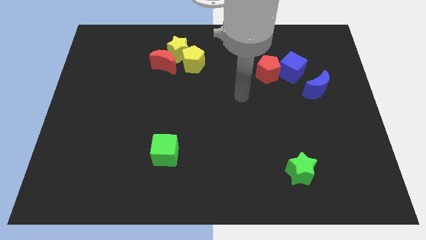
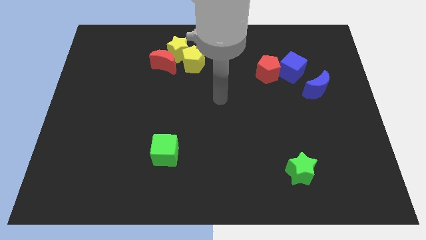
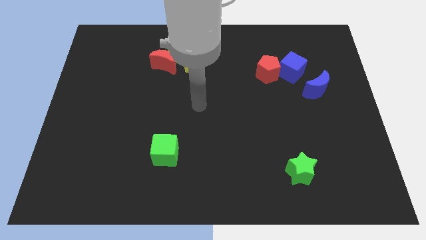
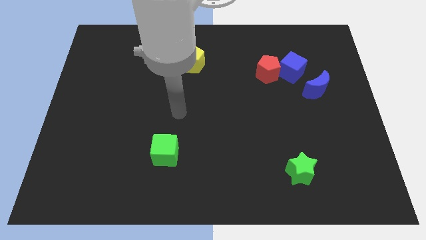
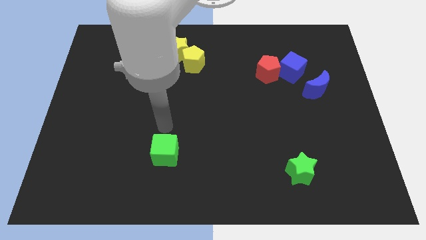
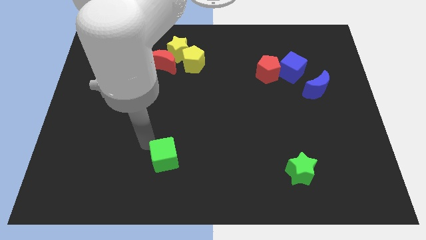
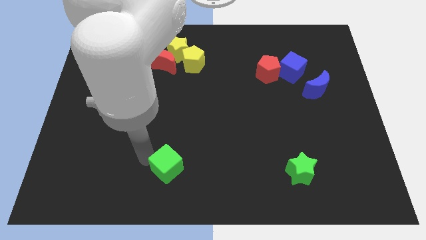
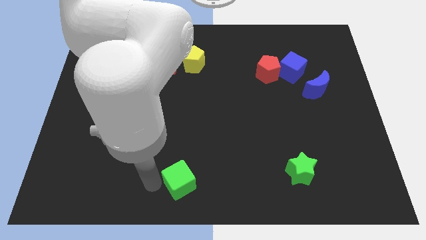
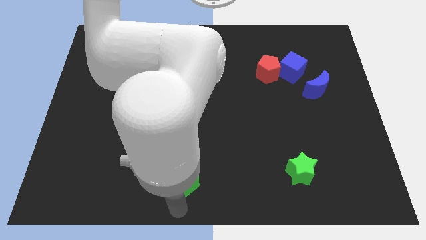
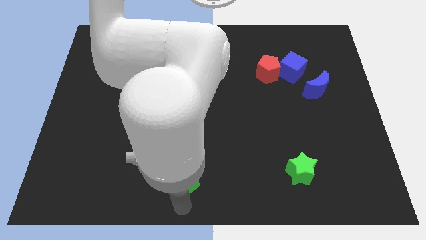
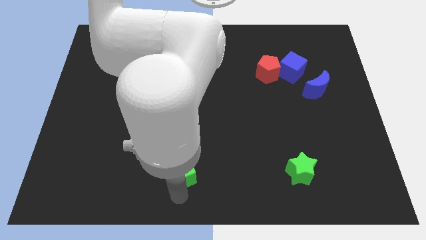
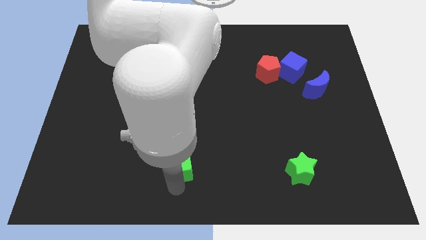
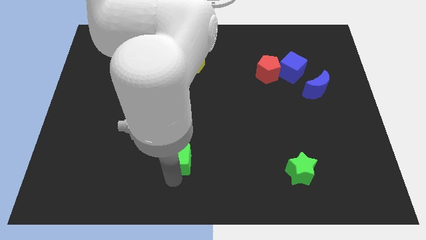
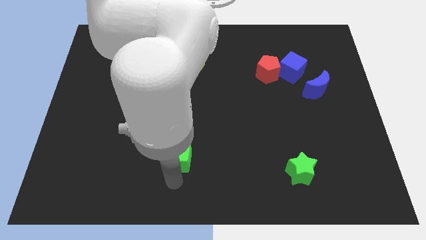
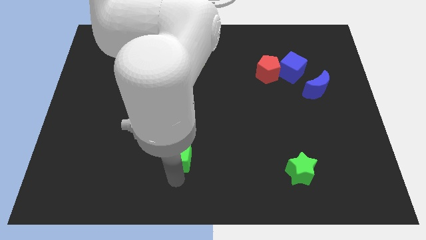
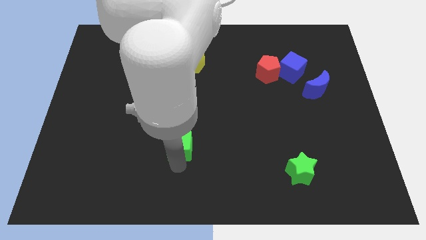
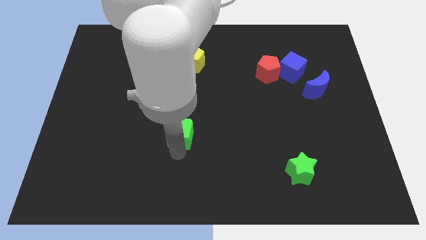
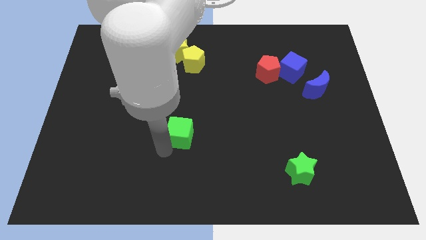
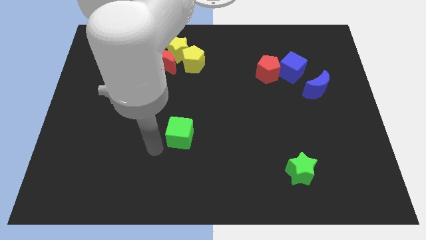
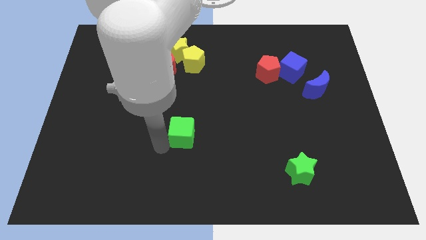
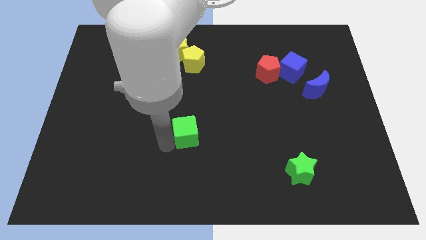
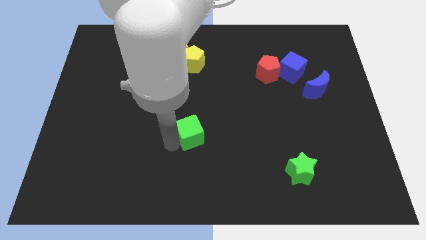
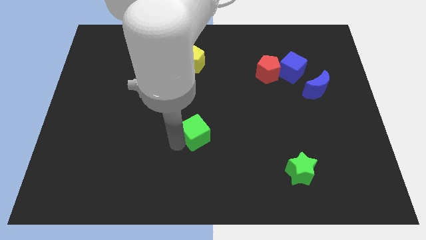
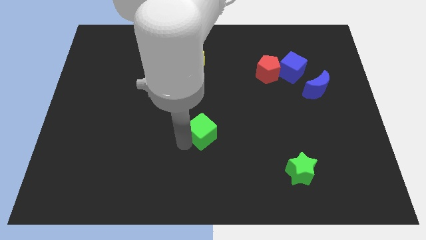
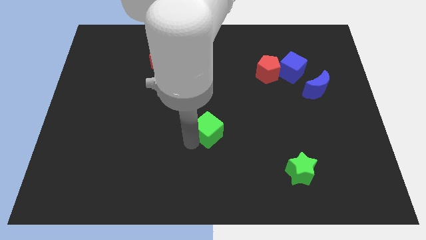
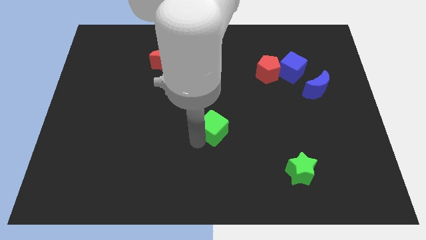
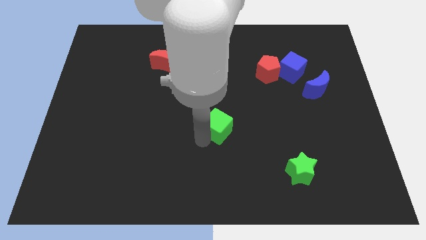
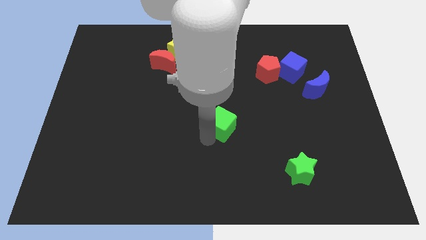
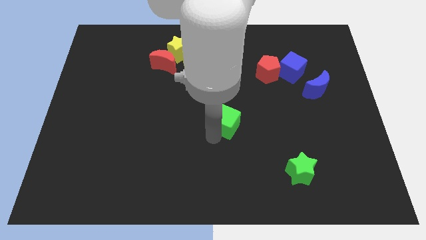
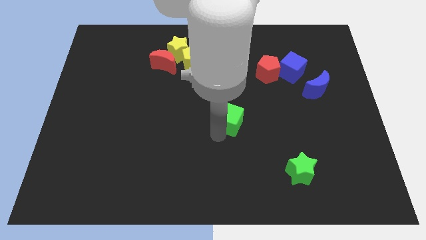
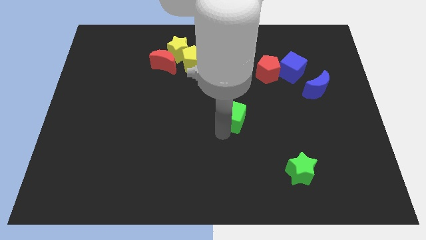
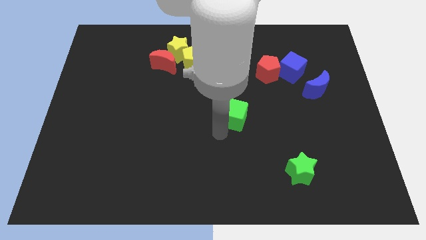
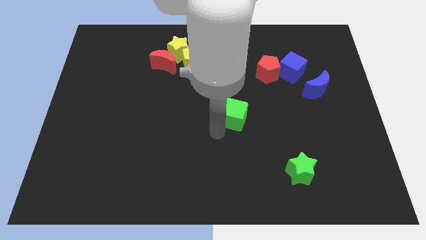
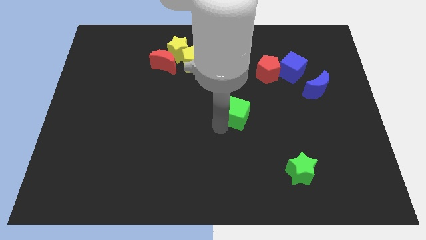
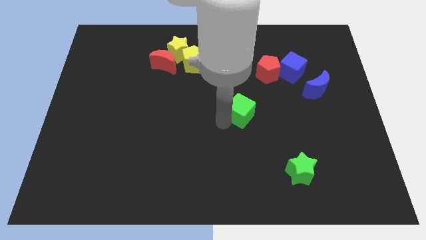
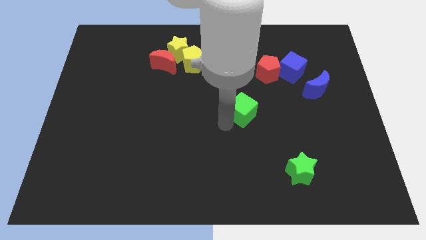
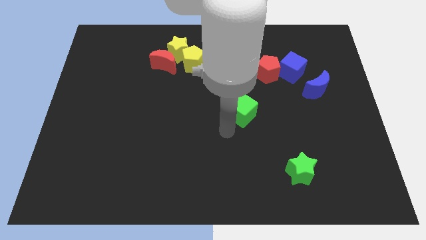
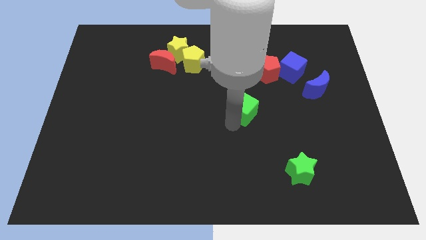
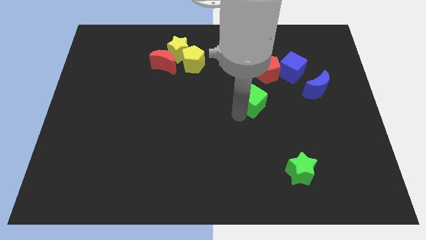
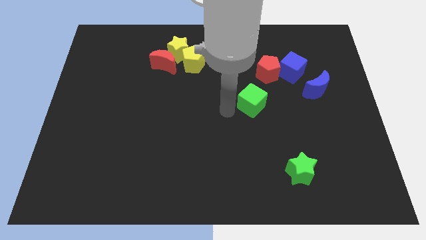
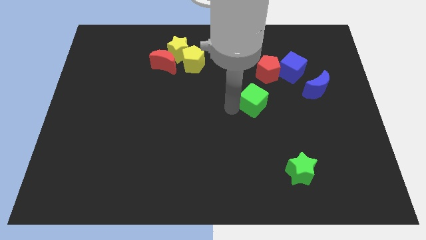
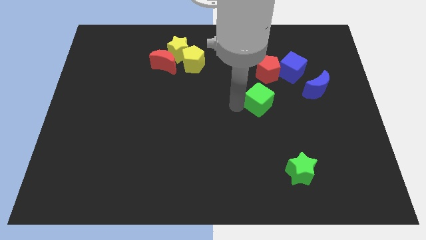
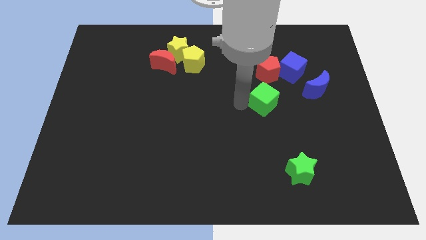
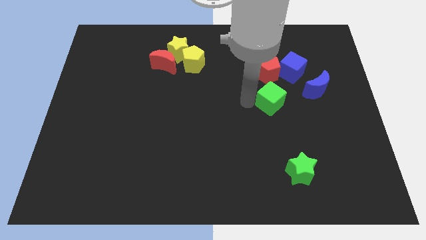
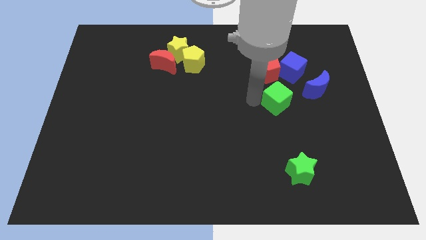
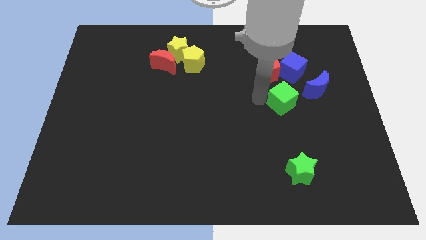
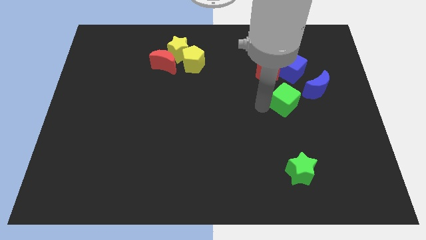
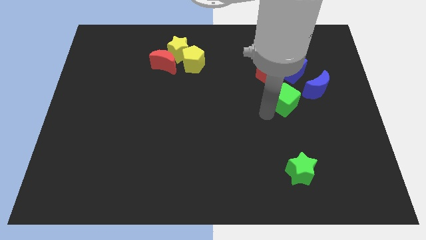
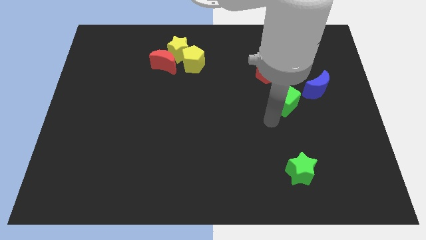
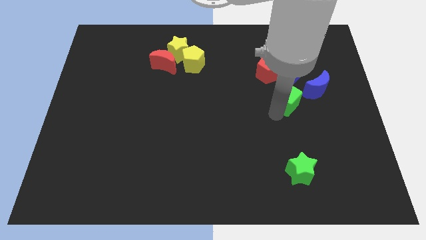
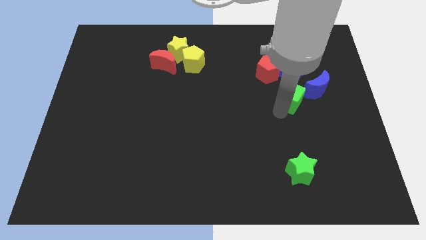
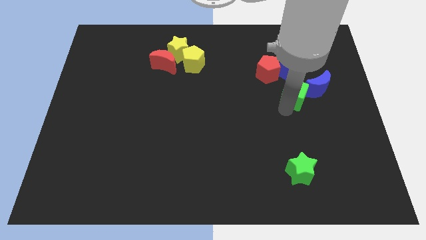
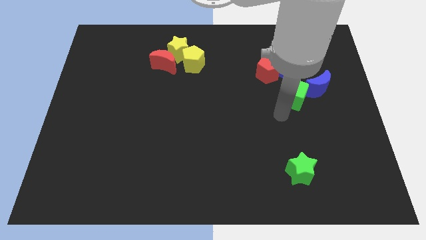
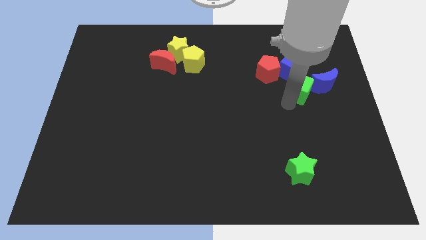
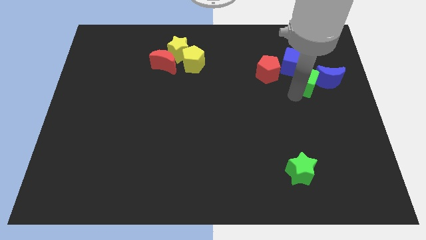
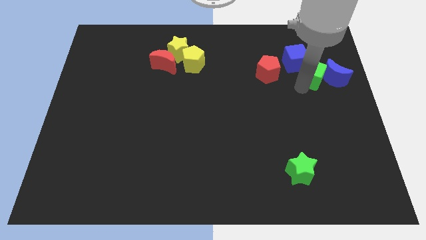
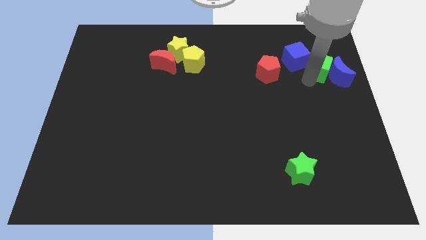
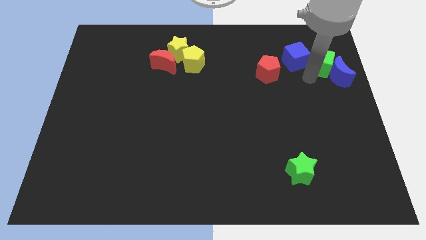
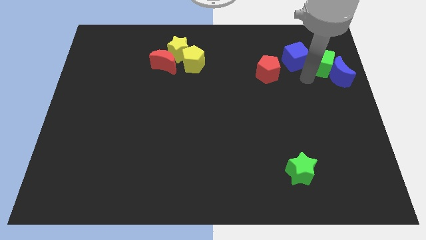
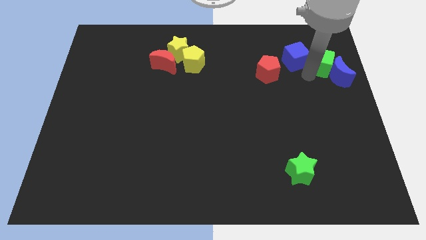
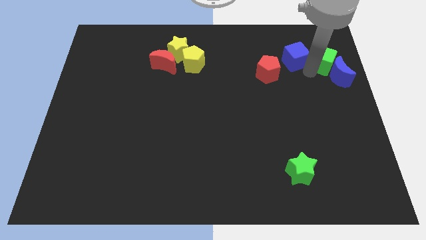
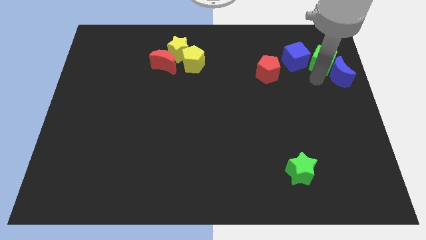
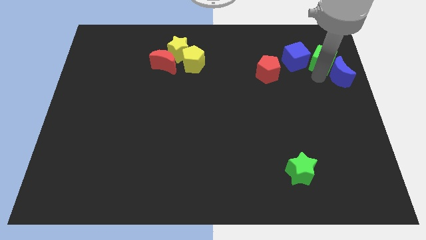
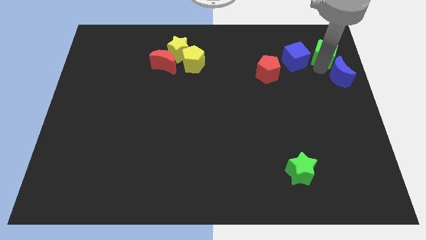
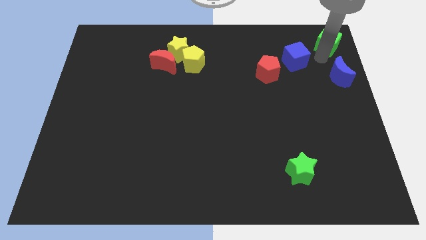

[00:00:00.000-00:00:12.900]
push the green cube to the top right of the board

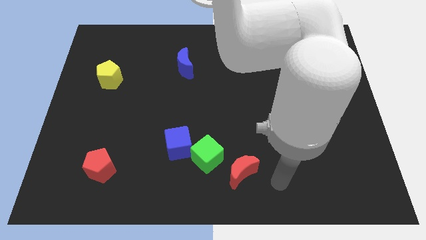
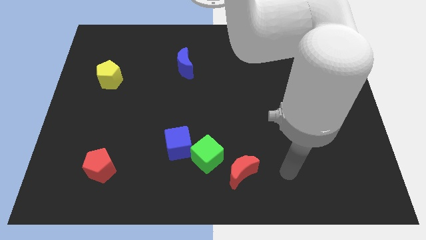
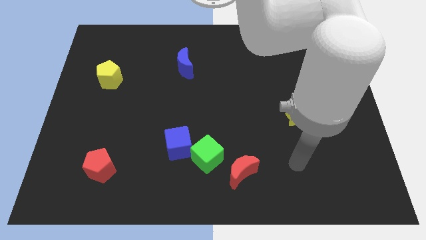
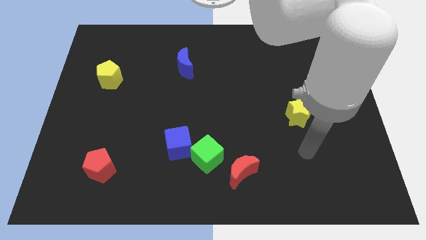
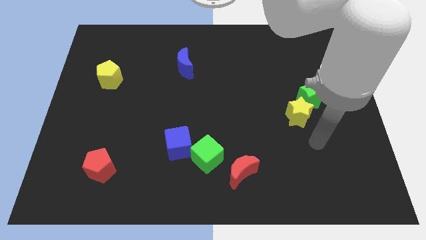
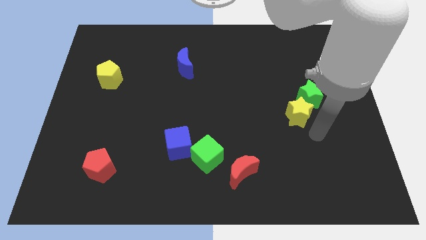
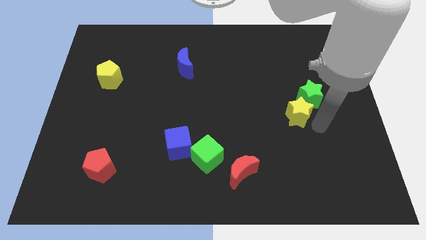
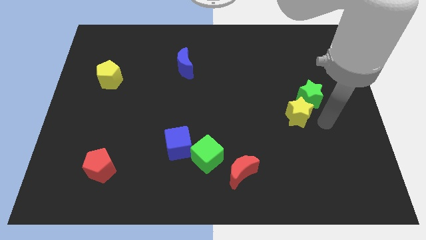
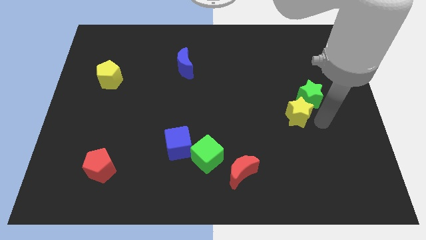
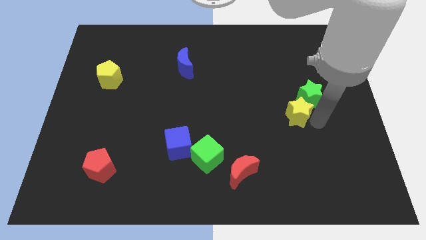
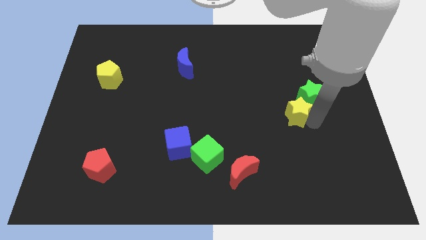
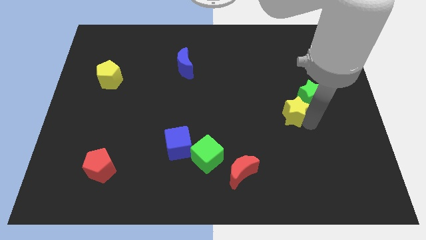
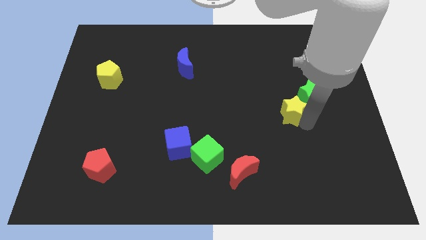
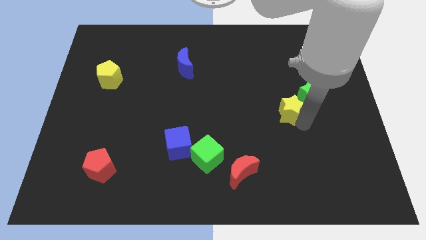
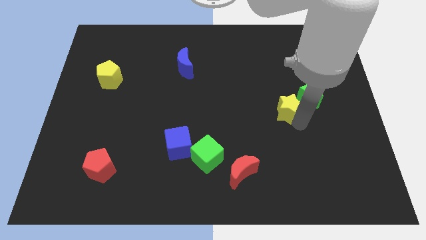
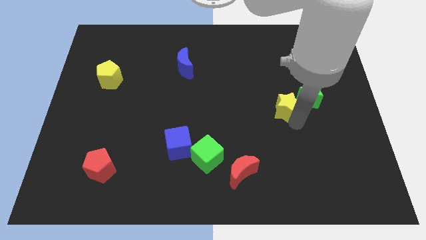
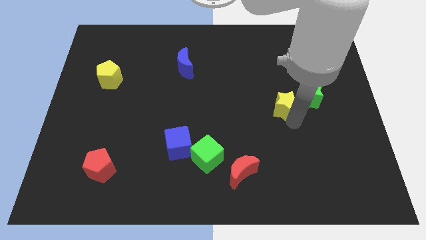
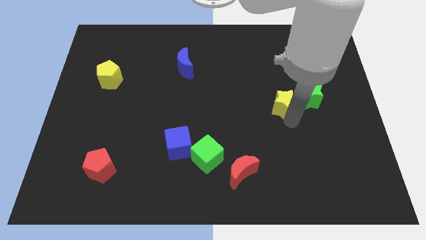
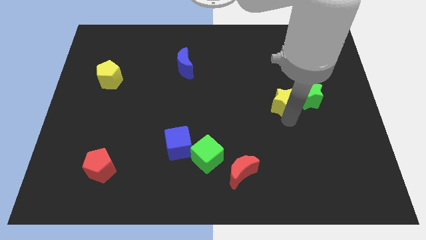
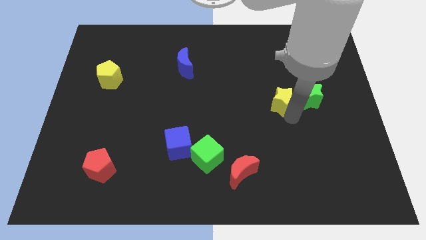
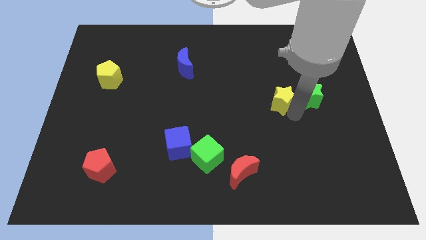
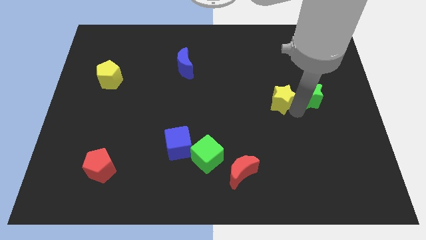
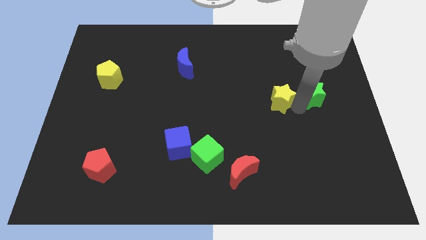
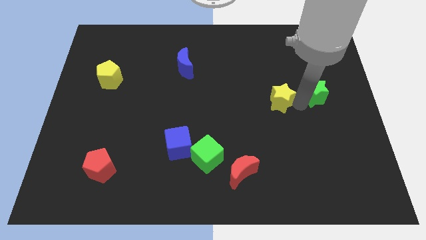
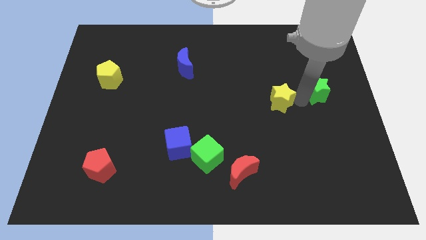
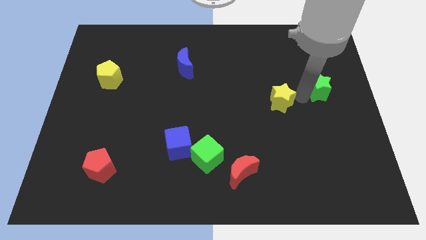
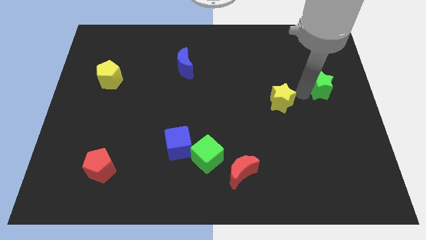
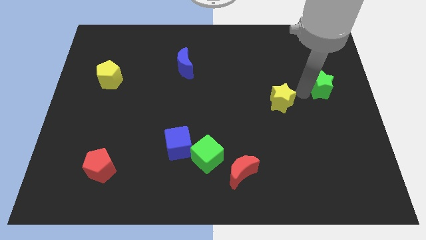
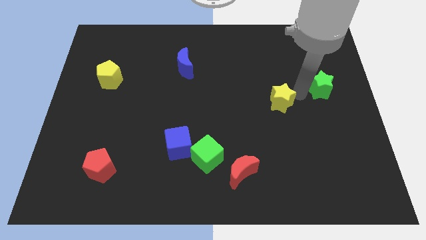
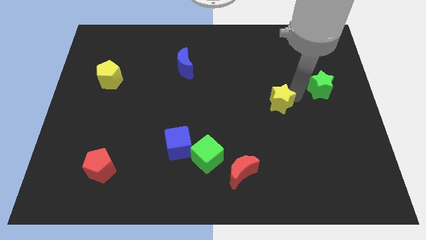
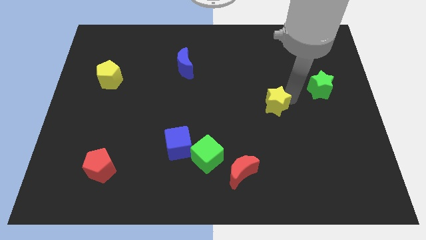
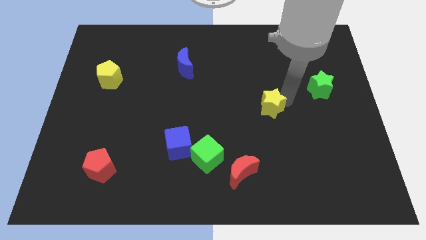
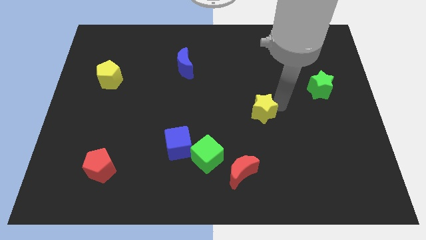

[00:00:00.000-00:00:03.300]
move the yellow star to the center
